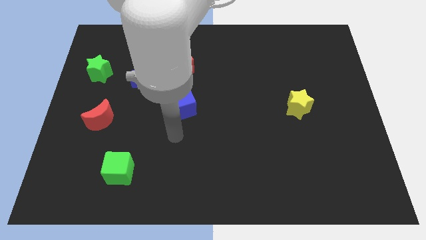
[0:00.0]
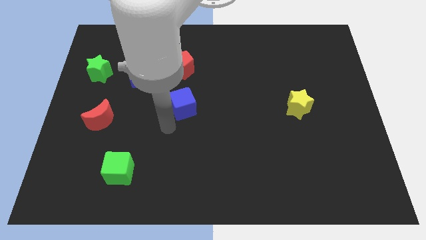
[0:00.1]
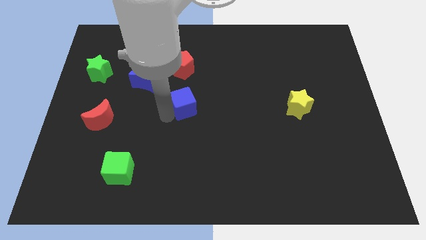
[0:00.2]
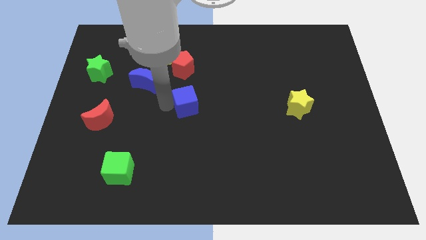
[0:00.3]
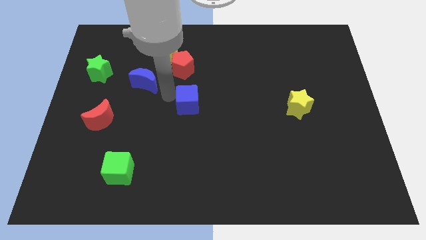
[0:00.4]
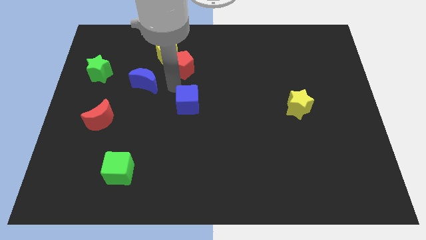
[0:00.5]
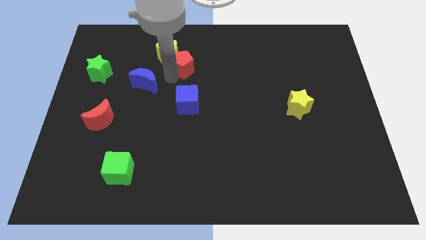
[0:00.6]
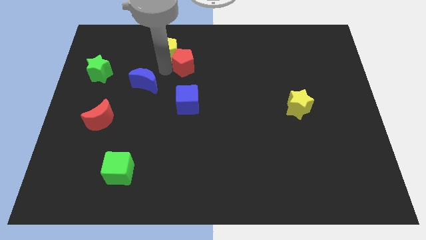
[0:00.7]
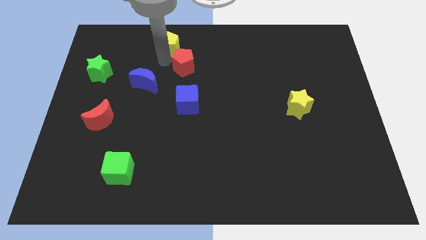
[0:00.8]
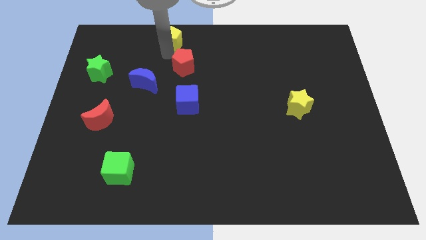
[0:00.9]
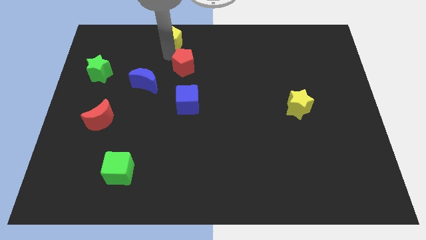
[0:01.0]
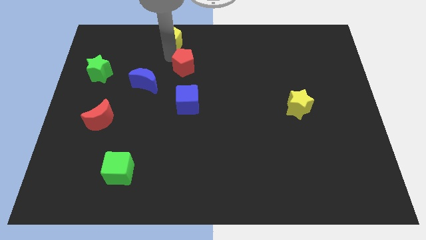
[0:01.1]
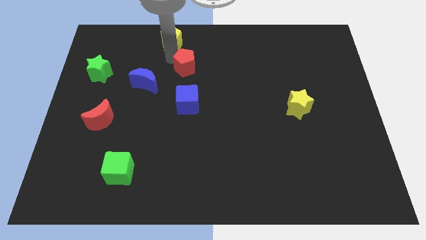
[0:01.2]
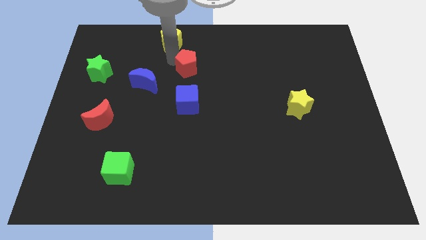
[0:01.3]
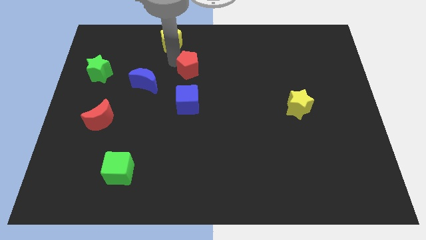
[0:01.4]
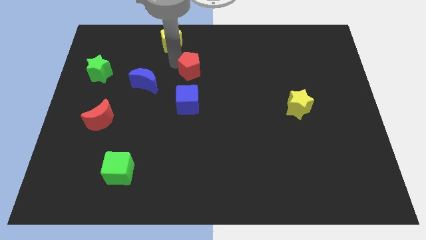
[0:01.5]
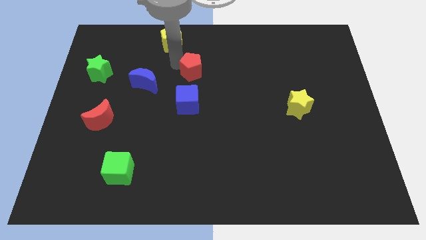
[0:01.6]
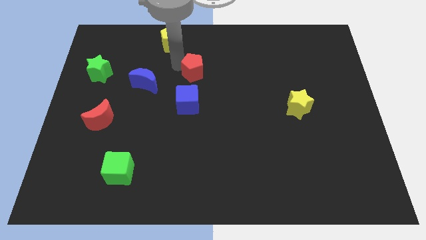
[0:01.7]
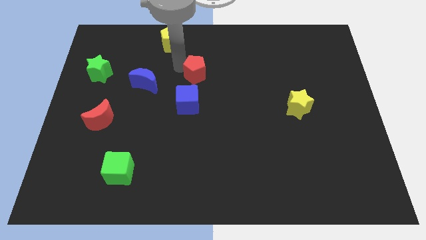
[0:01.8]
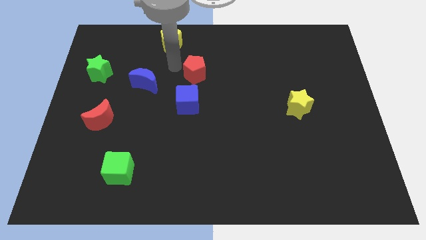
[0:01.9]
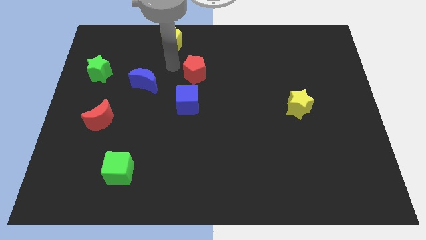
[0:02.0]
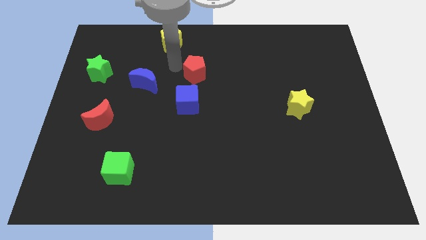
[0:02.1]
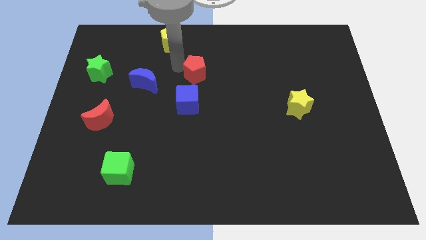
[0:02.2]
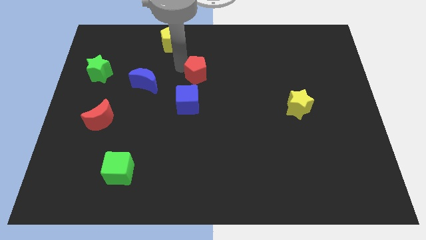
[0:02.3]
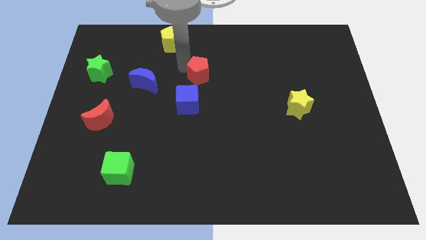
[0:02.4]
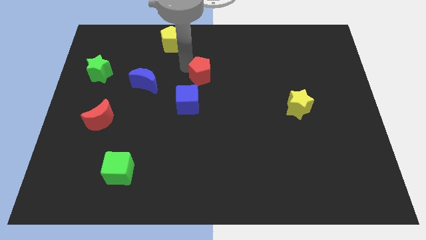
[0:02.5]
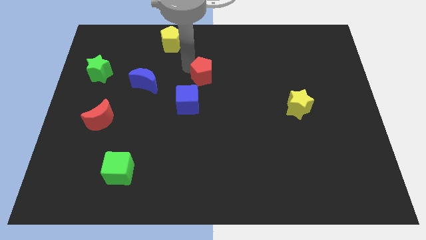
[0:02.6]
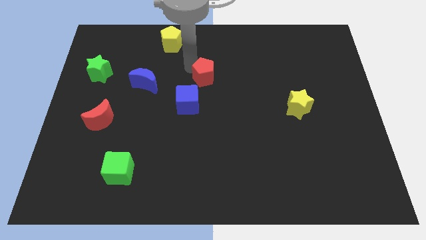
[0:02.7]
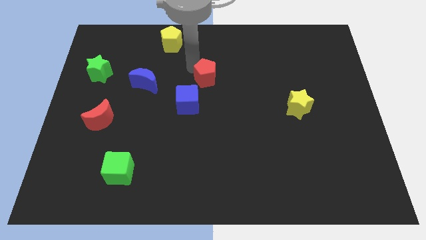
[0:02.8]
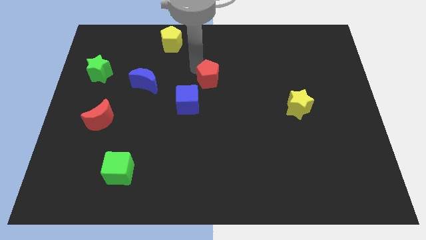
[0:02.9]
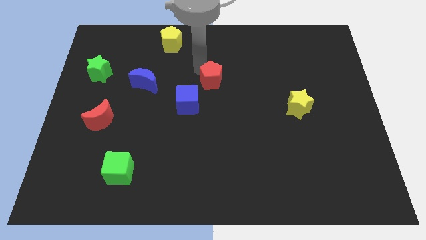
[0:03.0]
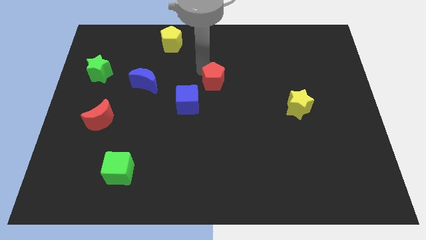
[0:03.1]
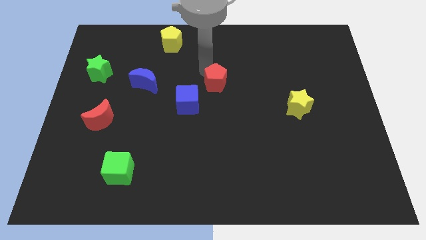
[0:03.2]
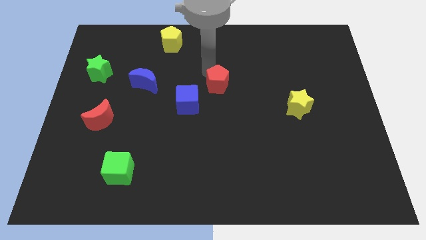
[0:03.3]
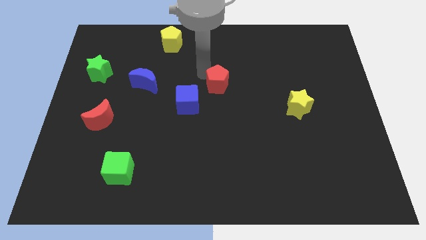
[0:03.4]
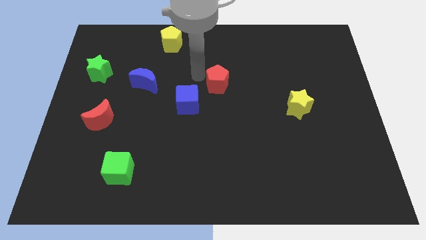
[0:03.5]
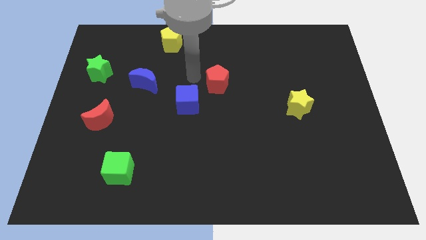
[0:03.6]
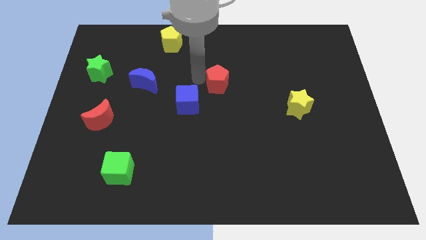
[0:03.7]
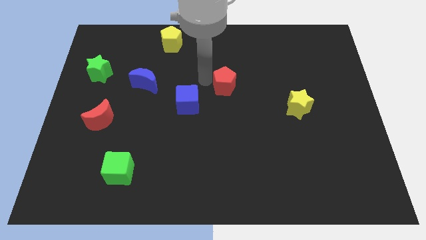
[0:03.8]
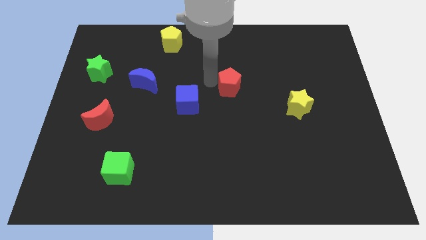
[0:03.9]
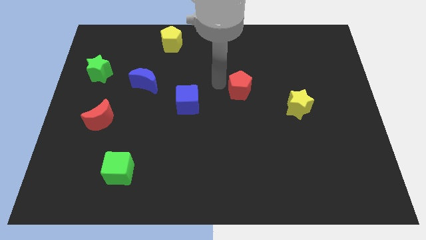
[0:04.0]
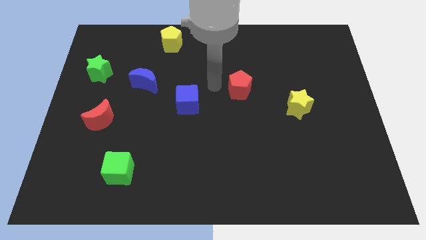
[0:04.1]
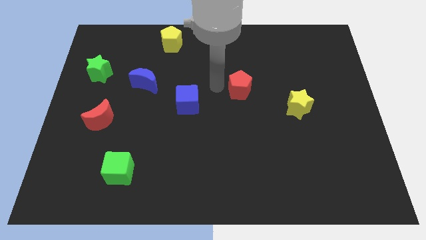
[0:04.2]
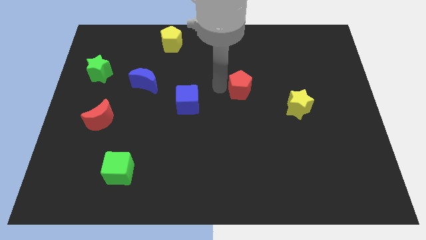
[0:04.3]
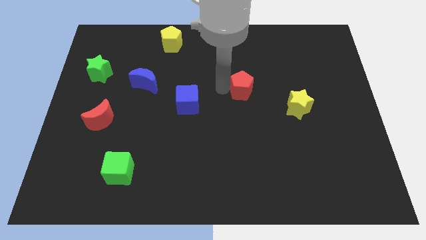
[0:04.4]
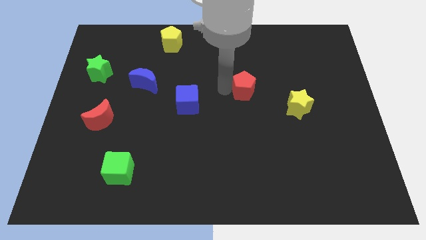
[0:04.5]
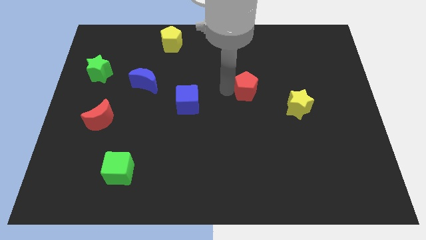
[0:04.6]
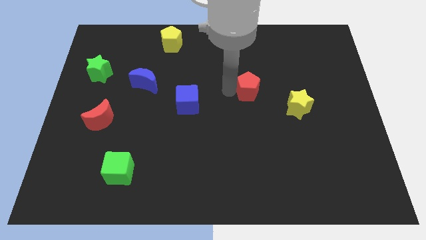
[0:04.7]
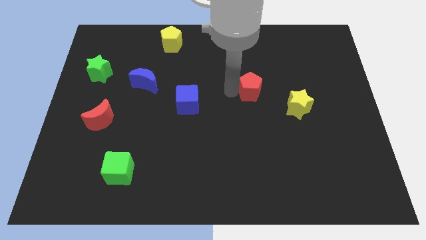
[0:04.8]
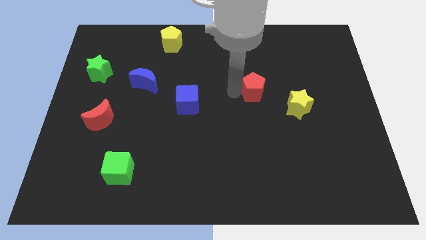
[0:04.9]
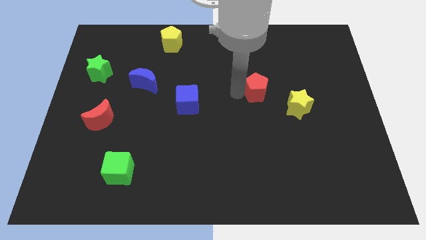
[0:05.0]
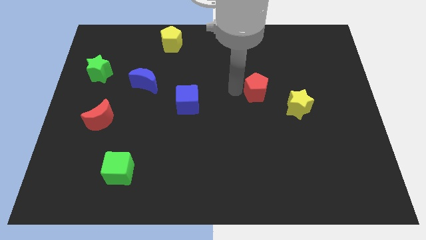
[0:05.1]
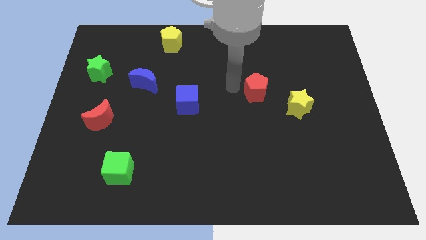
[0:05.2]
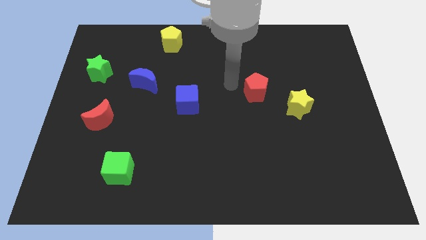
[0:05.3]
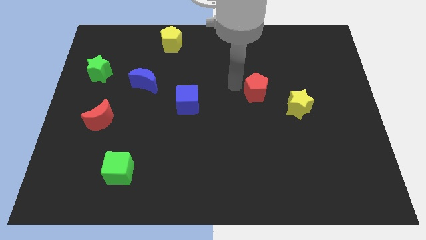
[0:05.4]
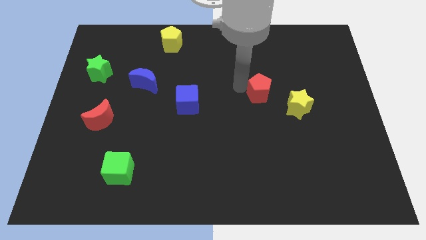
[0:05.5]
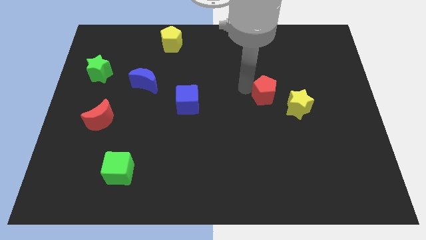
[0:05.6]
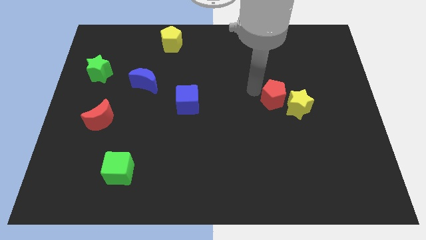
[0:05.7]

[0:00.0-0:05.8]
put the red pentagon to the yellow star

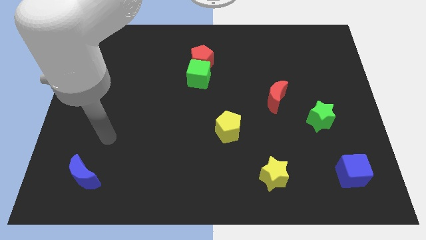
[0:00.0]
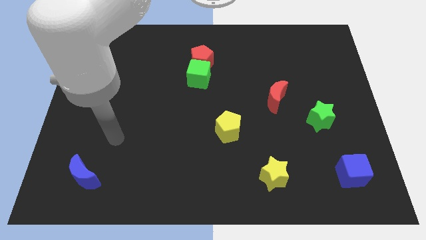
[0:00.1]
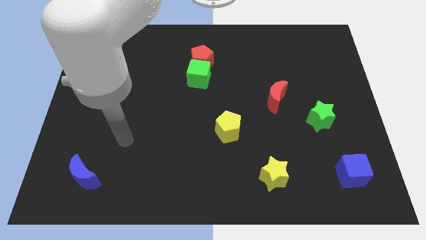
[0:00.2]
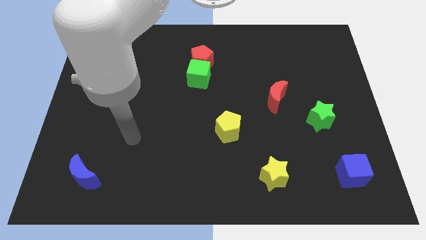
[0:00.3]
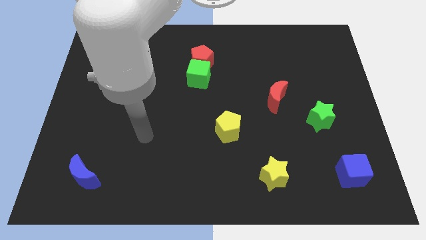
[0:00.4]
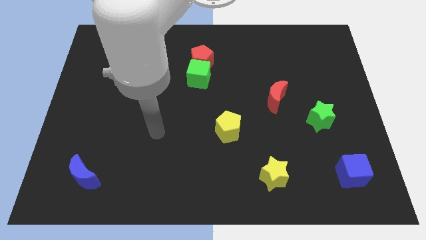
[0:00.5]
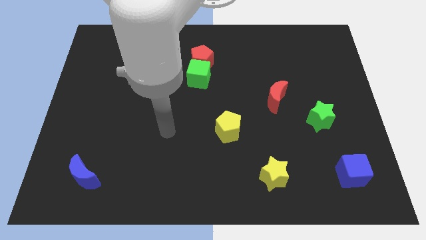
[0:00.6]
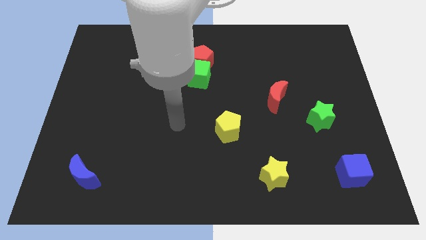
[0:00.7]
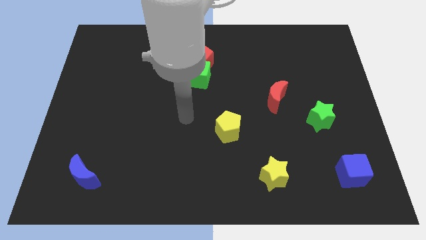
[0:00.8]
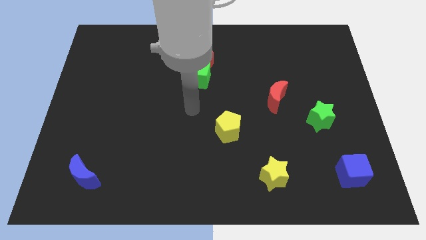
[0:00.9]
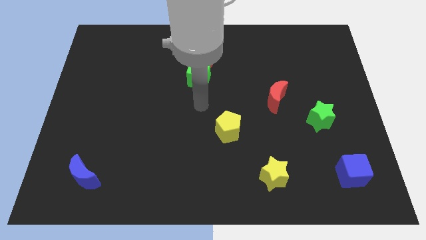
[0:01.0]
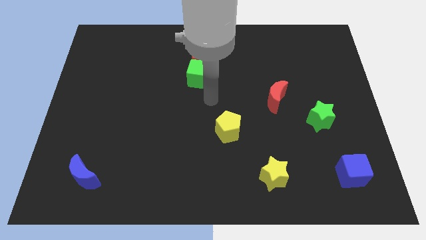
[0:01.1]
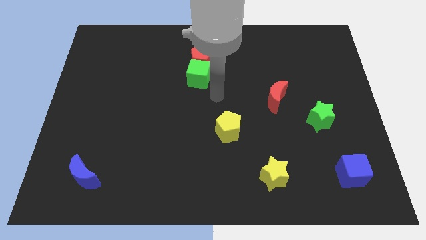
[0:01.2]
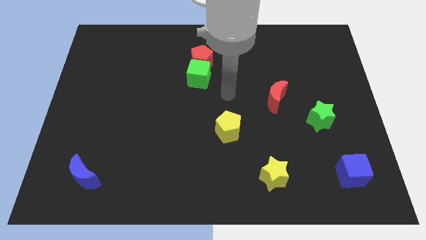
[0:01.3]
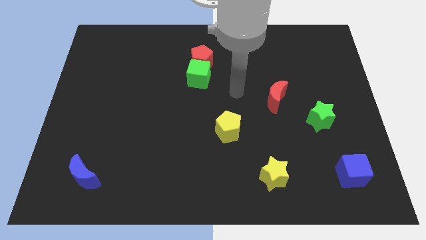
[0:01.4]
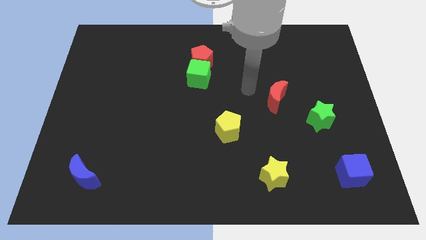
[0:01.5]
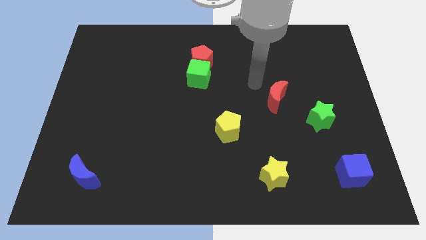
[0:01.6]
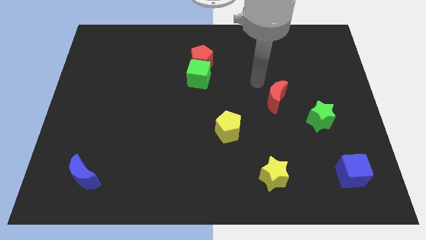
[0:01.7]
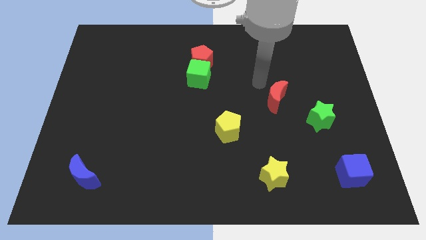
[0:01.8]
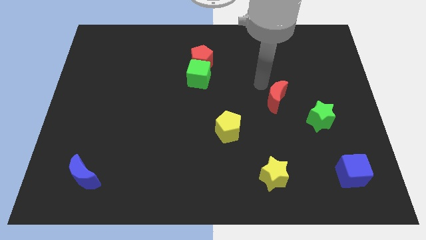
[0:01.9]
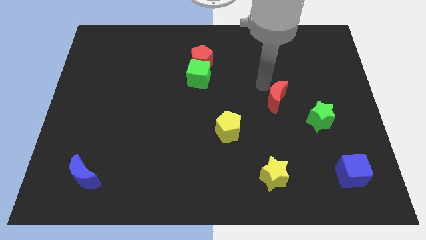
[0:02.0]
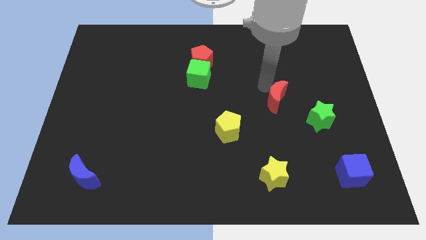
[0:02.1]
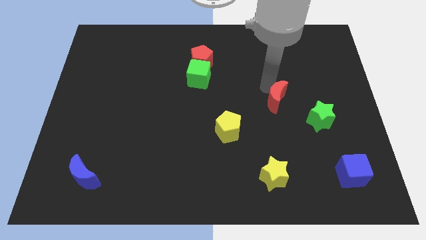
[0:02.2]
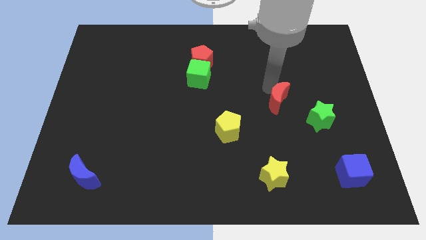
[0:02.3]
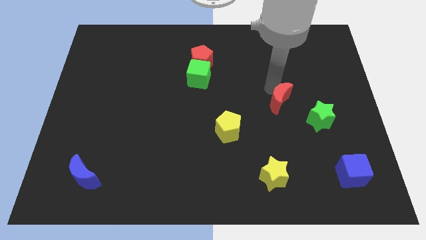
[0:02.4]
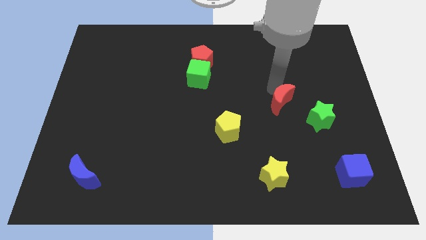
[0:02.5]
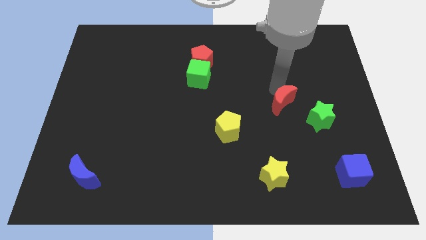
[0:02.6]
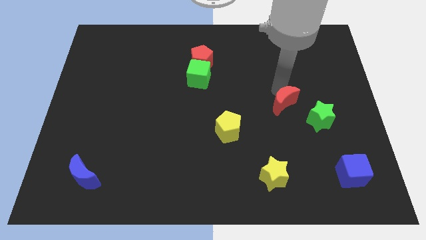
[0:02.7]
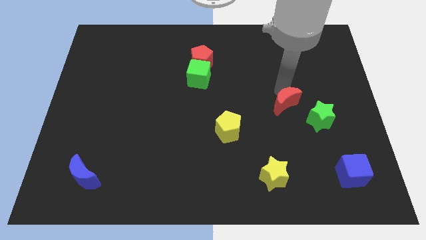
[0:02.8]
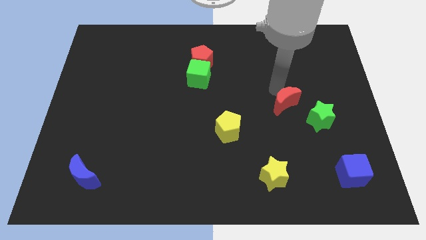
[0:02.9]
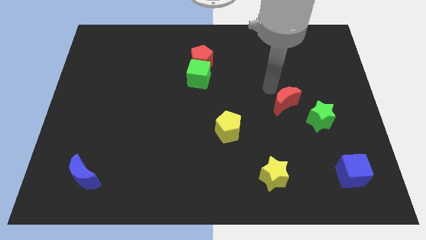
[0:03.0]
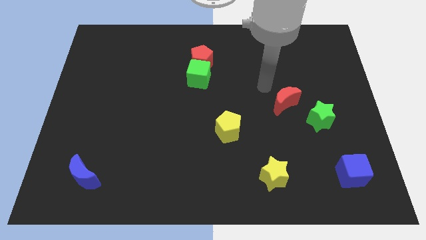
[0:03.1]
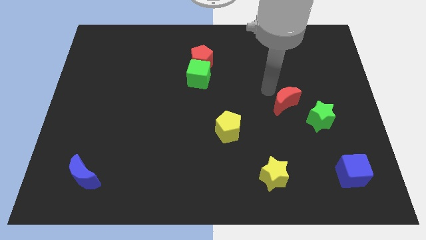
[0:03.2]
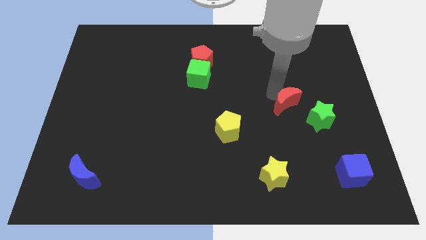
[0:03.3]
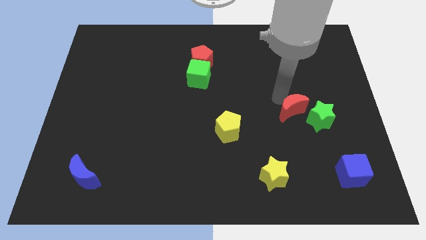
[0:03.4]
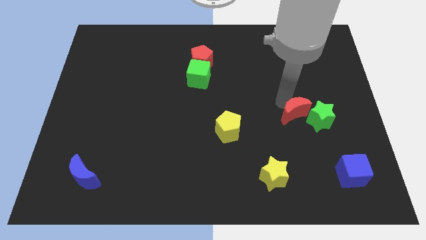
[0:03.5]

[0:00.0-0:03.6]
put the red moon to the green star
